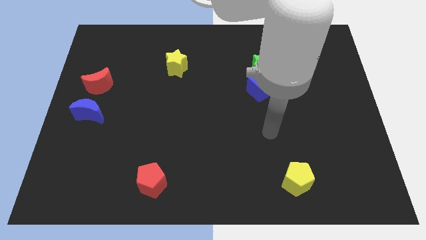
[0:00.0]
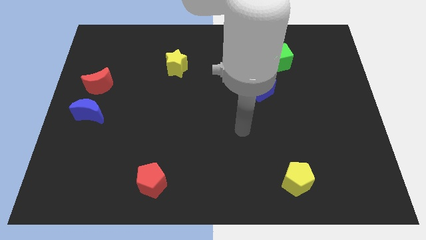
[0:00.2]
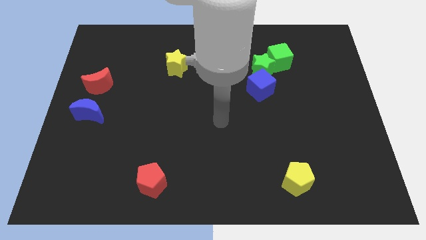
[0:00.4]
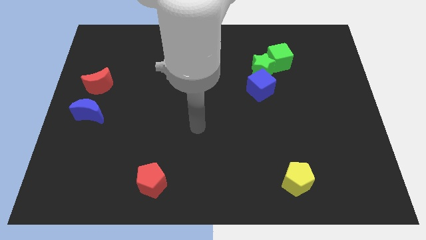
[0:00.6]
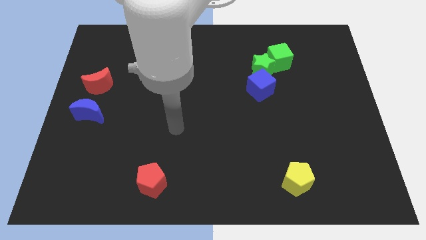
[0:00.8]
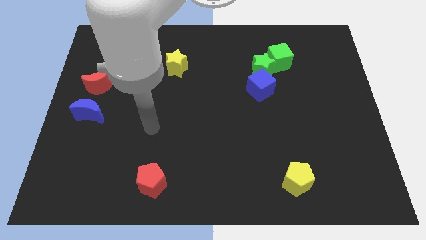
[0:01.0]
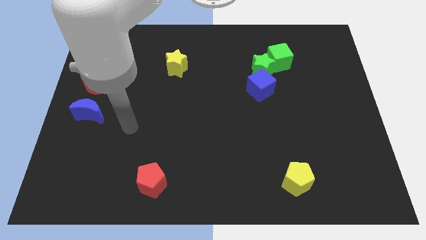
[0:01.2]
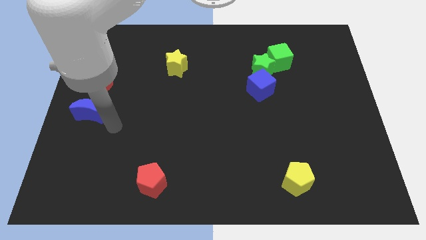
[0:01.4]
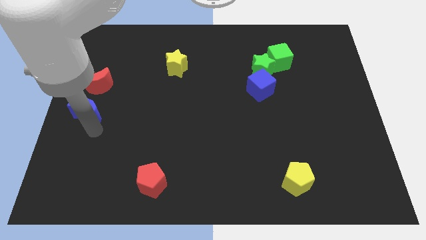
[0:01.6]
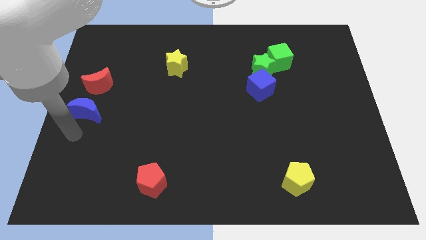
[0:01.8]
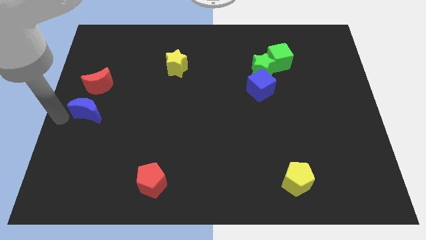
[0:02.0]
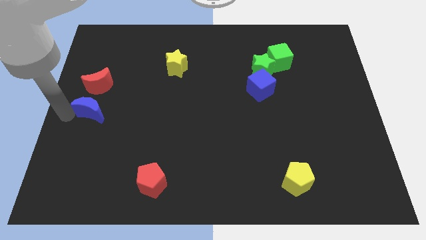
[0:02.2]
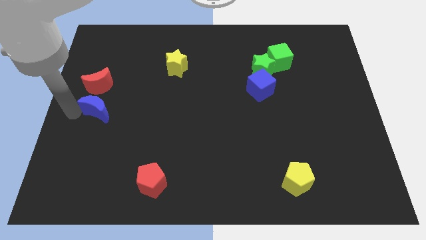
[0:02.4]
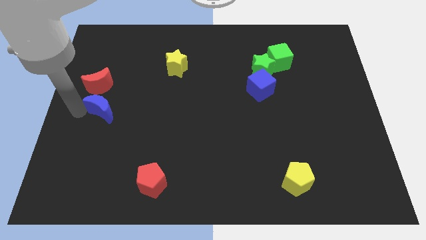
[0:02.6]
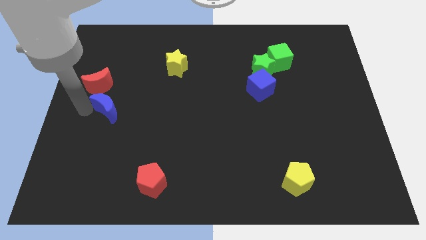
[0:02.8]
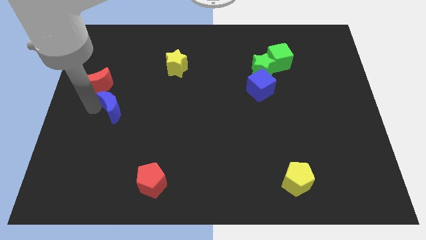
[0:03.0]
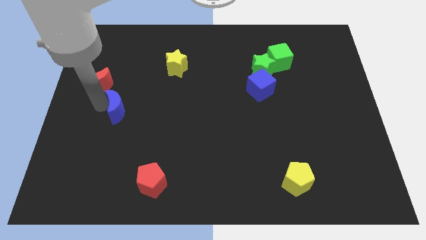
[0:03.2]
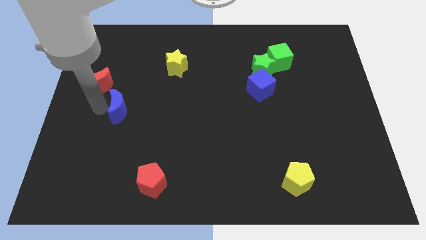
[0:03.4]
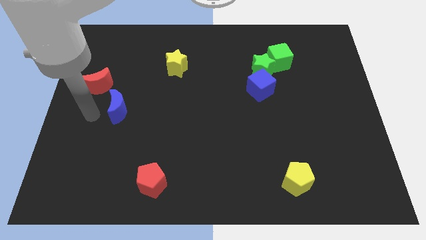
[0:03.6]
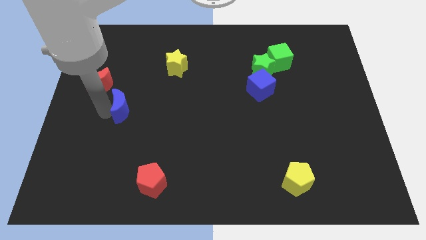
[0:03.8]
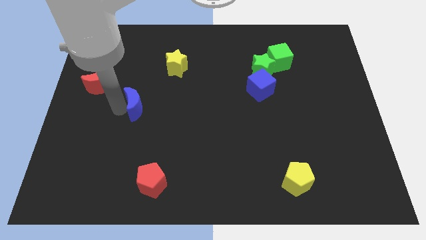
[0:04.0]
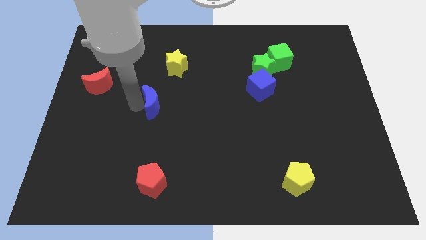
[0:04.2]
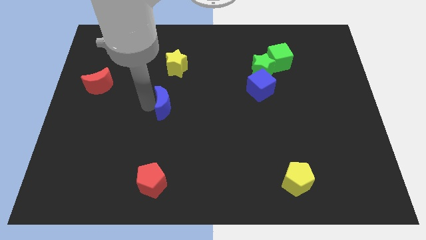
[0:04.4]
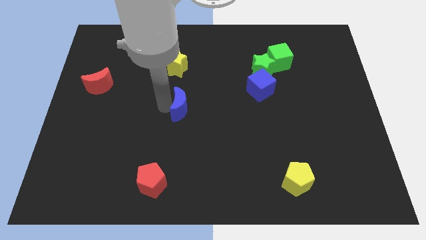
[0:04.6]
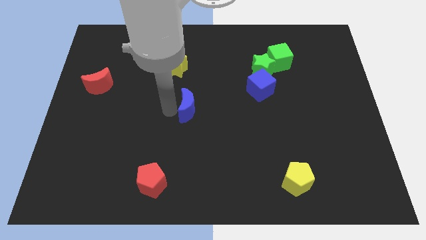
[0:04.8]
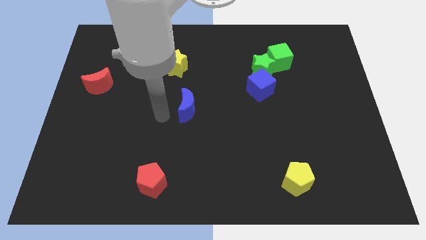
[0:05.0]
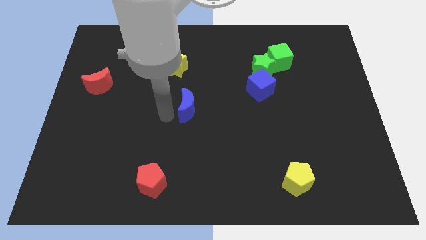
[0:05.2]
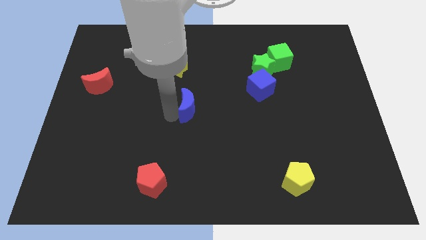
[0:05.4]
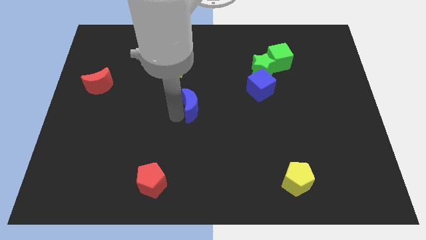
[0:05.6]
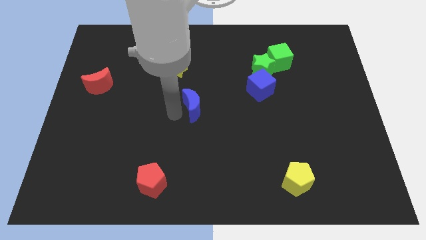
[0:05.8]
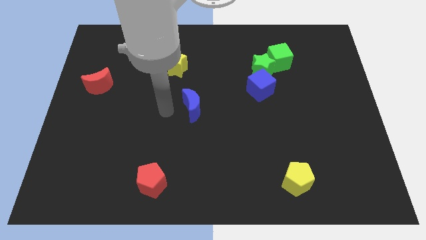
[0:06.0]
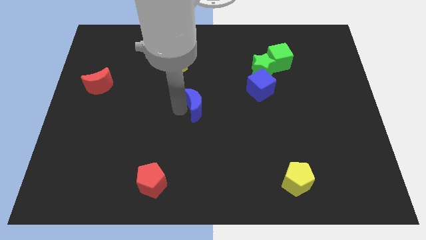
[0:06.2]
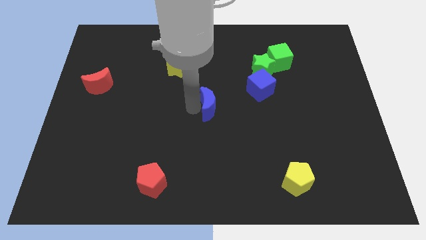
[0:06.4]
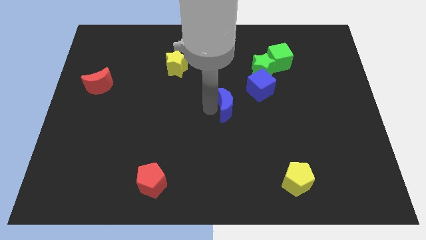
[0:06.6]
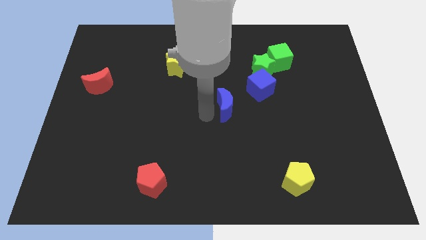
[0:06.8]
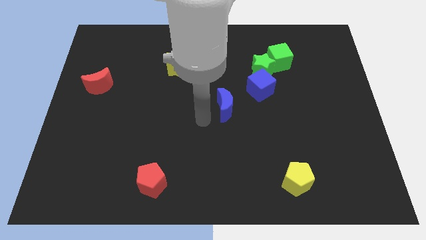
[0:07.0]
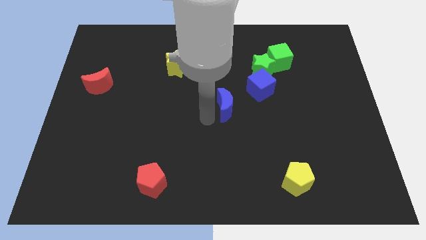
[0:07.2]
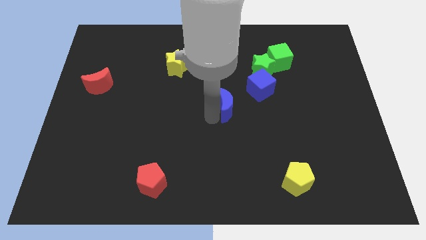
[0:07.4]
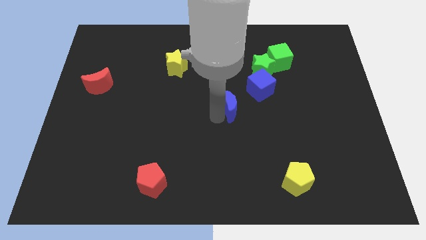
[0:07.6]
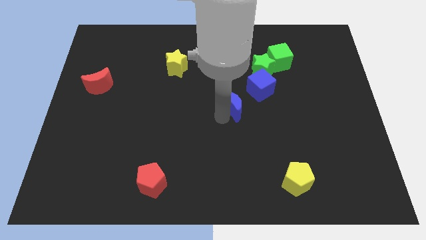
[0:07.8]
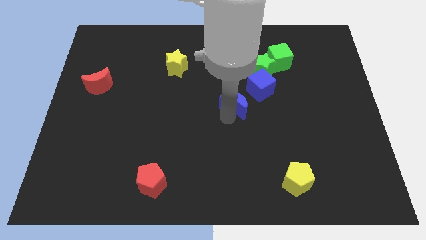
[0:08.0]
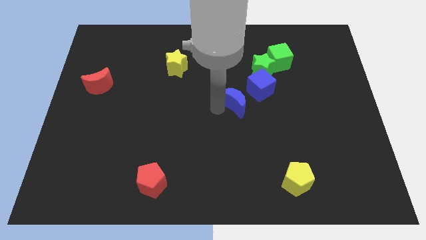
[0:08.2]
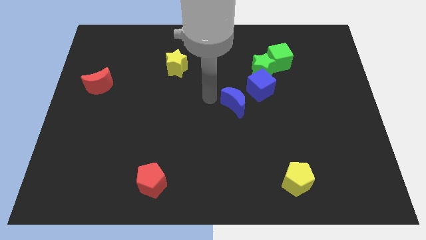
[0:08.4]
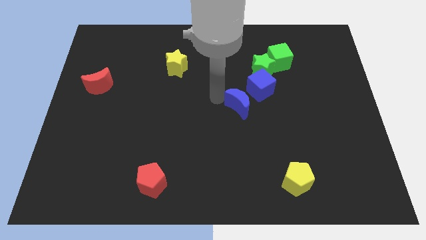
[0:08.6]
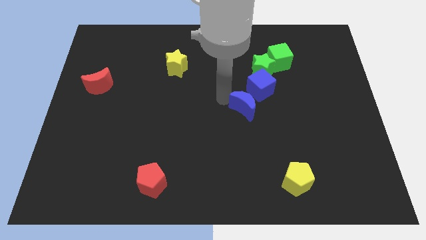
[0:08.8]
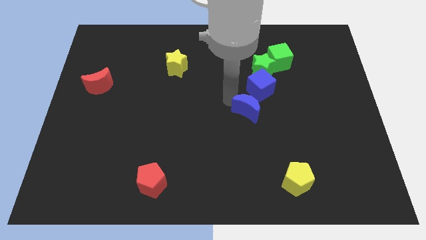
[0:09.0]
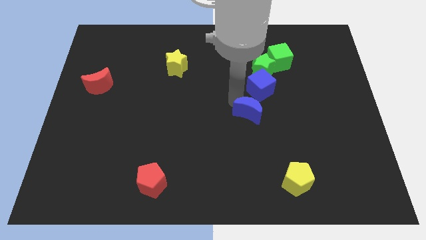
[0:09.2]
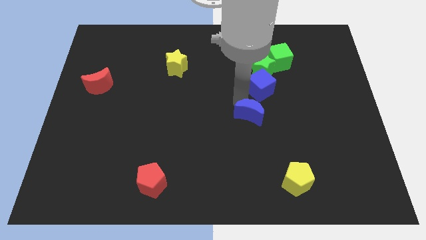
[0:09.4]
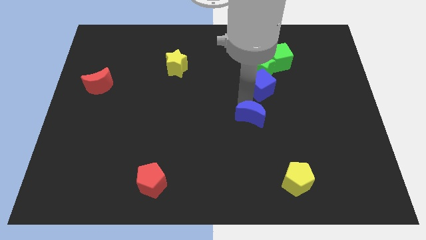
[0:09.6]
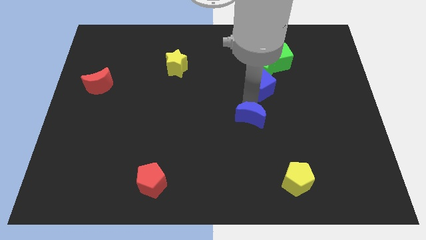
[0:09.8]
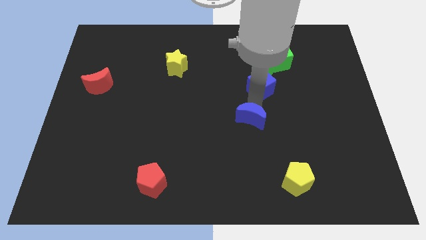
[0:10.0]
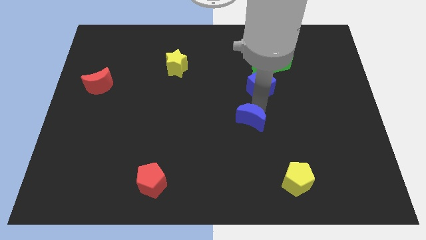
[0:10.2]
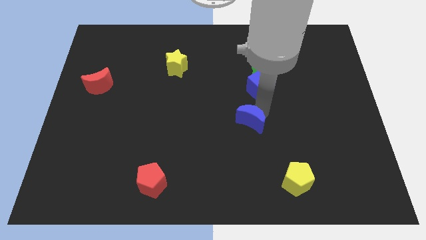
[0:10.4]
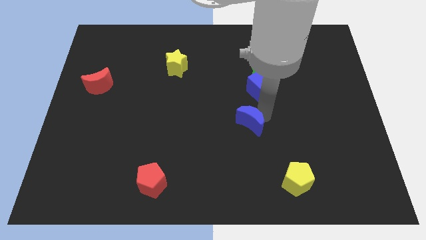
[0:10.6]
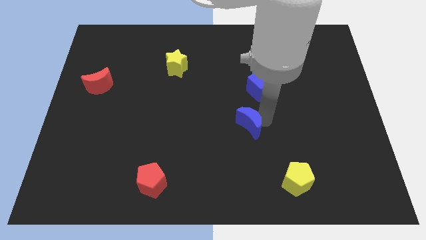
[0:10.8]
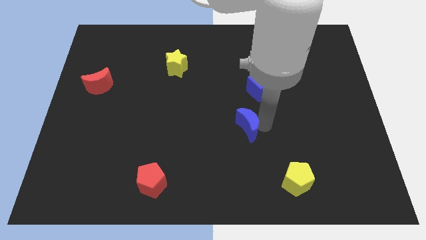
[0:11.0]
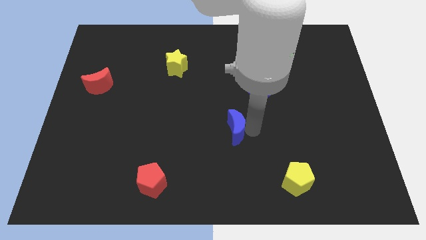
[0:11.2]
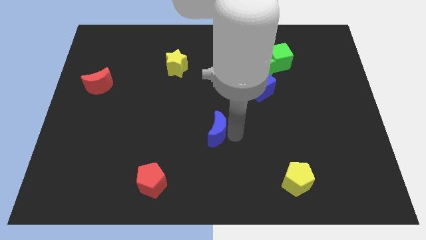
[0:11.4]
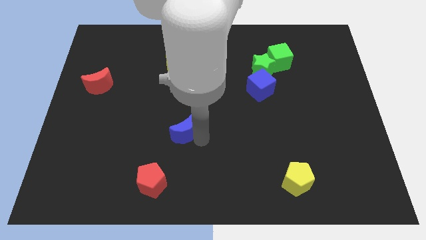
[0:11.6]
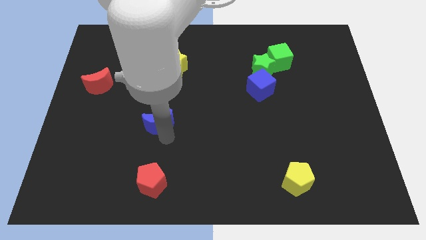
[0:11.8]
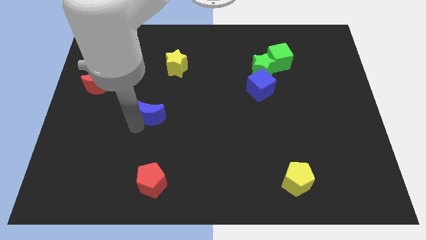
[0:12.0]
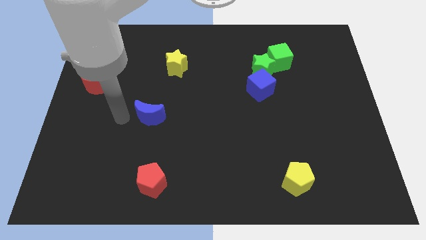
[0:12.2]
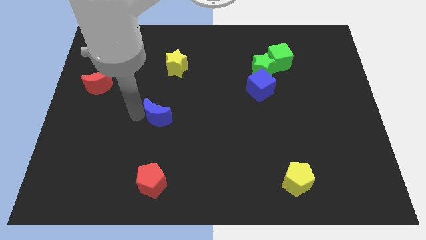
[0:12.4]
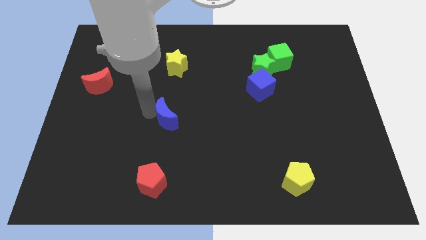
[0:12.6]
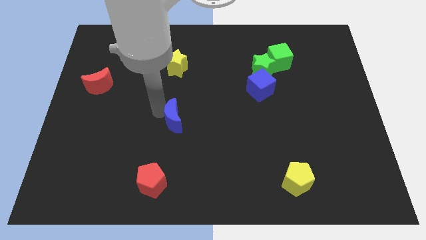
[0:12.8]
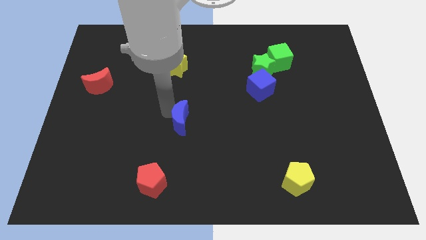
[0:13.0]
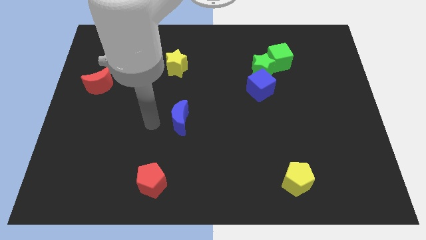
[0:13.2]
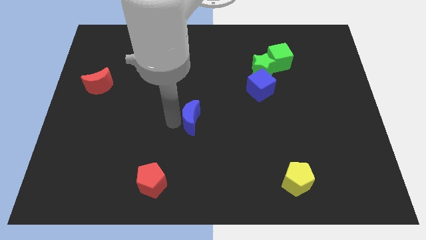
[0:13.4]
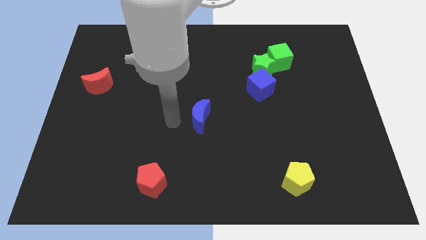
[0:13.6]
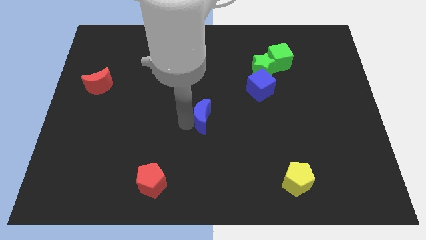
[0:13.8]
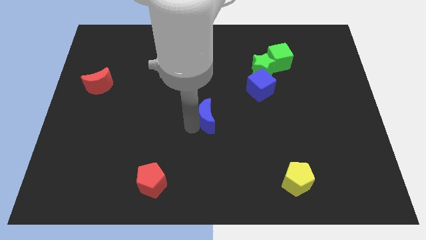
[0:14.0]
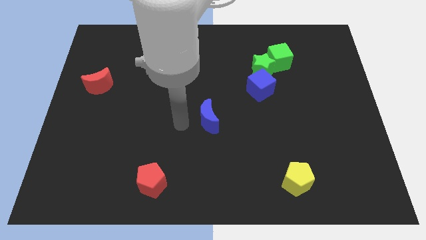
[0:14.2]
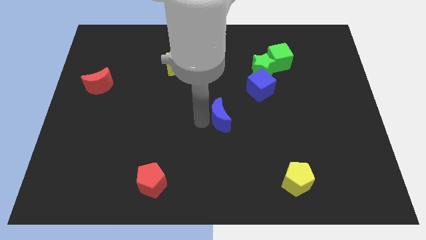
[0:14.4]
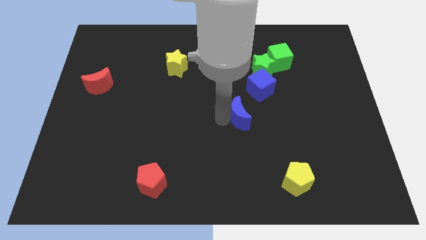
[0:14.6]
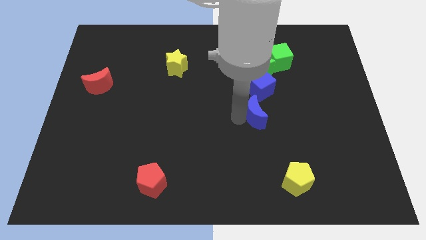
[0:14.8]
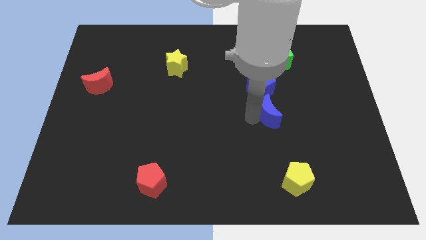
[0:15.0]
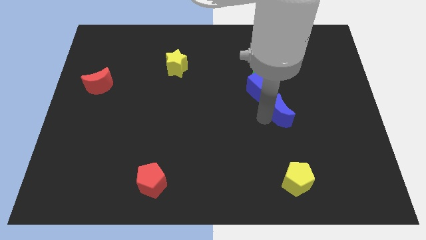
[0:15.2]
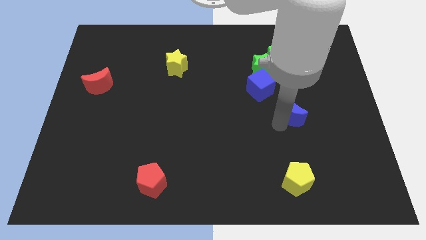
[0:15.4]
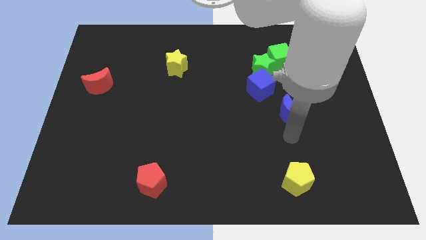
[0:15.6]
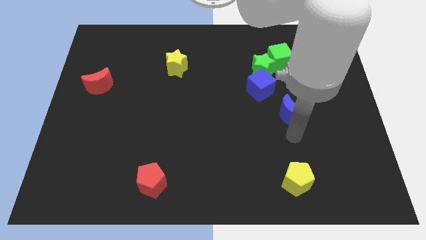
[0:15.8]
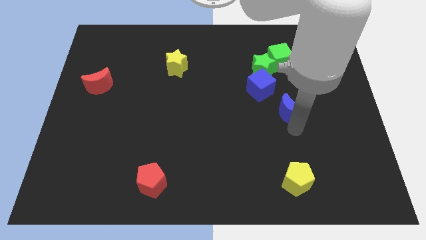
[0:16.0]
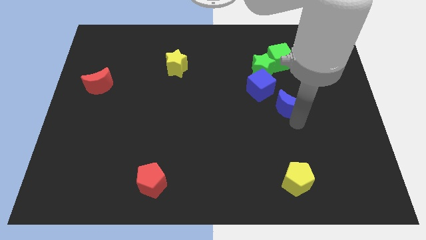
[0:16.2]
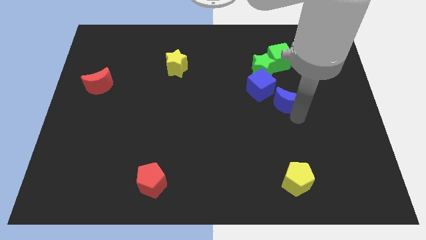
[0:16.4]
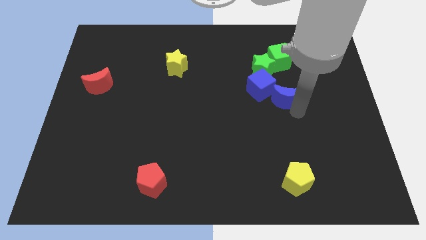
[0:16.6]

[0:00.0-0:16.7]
push the blue moon diagonally down and to the right of the green star
